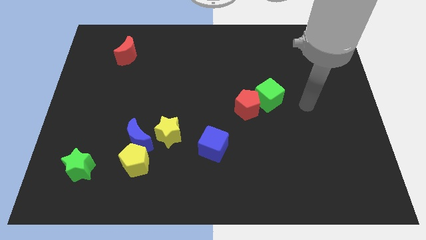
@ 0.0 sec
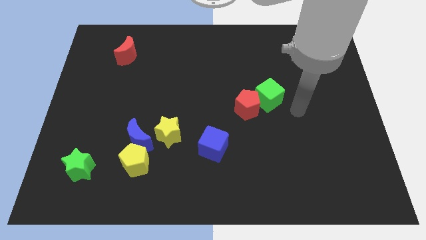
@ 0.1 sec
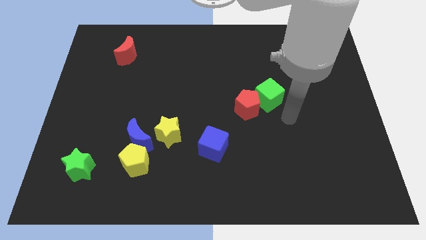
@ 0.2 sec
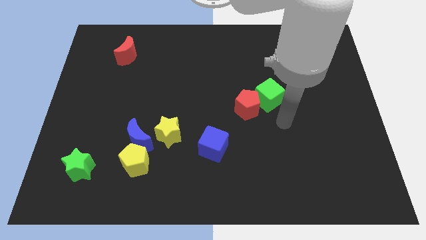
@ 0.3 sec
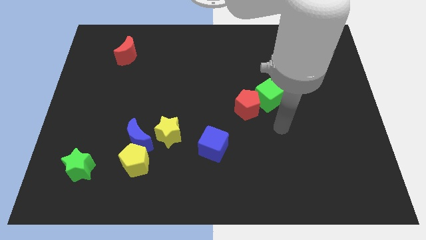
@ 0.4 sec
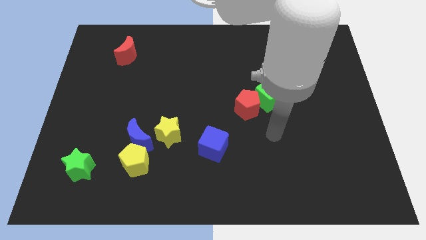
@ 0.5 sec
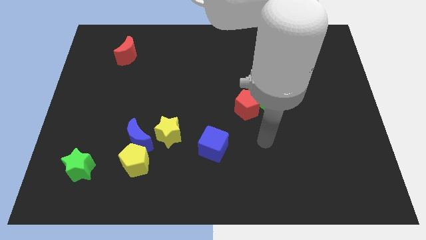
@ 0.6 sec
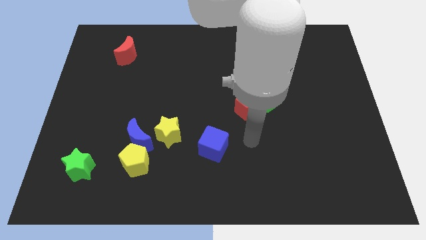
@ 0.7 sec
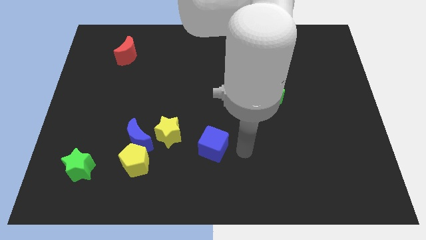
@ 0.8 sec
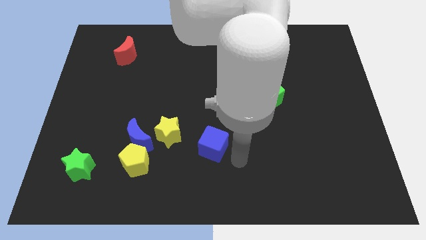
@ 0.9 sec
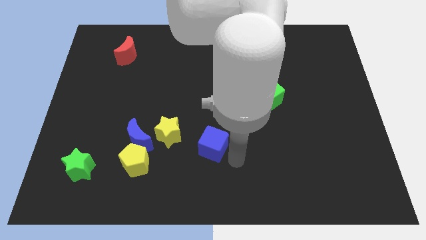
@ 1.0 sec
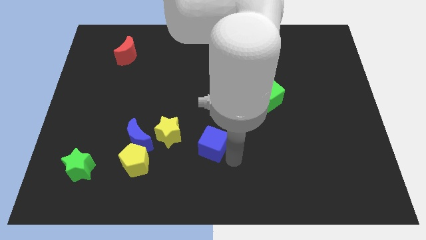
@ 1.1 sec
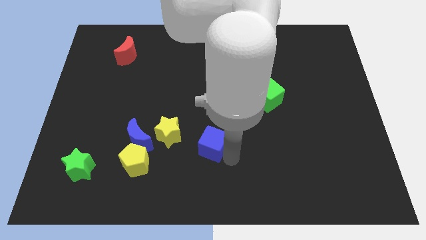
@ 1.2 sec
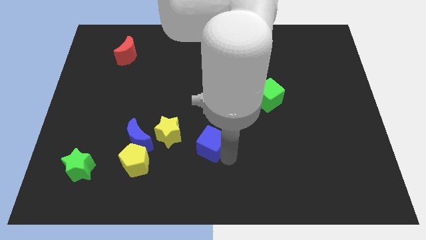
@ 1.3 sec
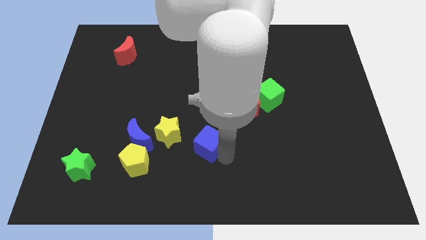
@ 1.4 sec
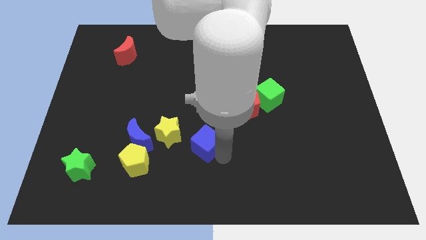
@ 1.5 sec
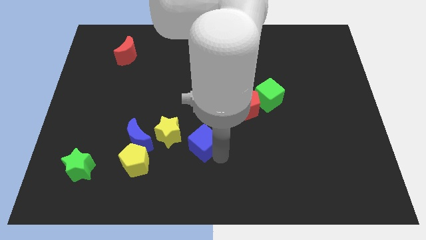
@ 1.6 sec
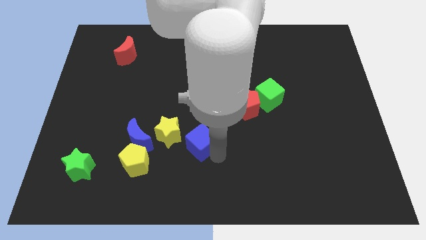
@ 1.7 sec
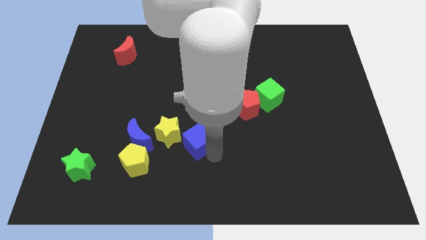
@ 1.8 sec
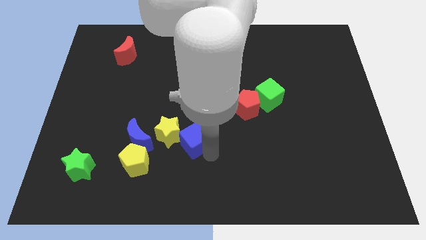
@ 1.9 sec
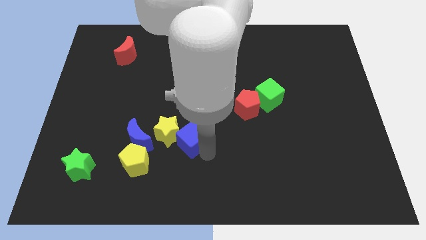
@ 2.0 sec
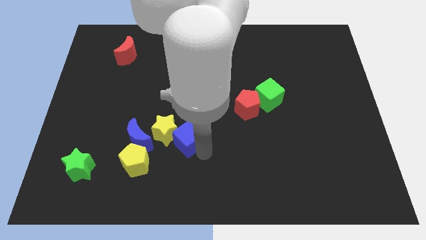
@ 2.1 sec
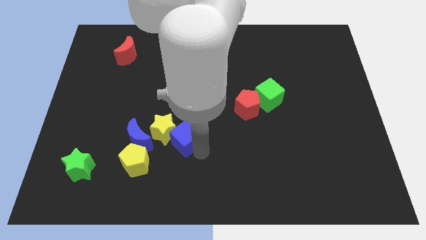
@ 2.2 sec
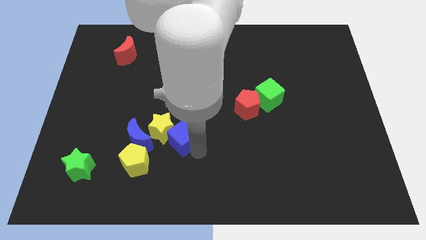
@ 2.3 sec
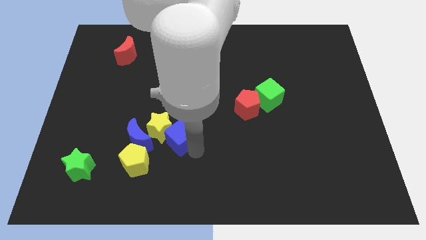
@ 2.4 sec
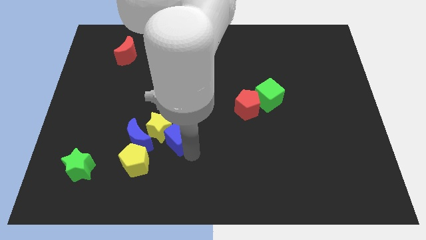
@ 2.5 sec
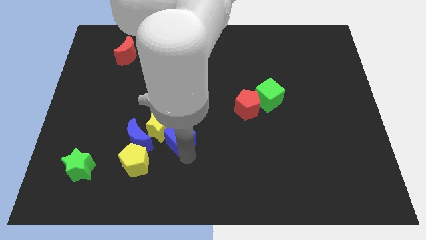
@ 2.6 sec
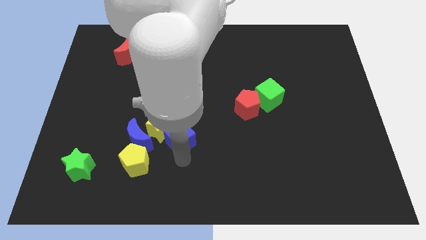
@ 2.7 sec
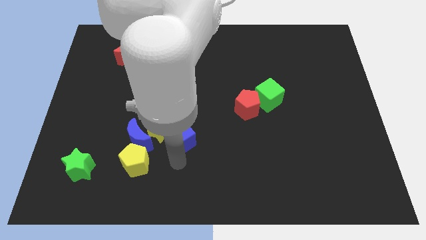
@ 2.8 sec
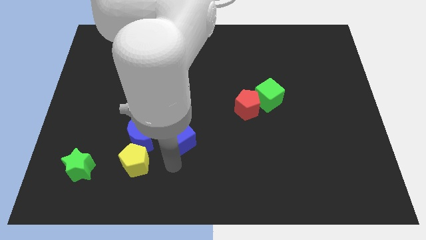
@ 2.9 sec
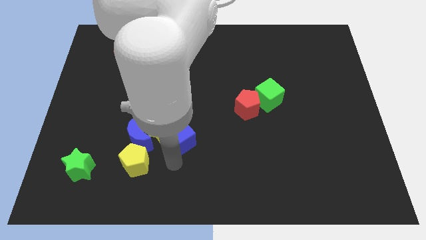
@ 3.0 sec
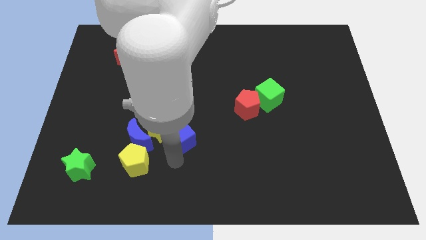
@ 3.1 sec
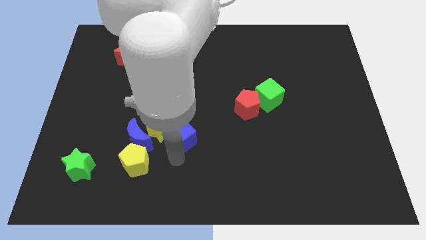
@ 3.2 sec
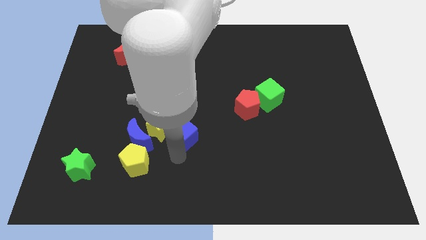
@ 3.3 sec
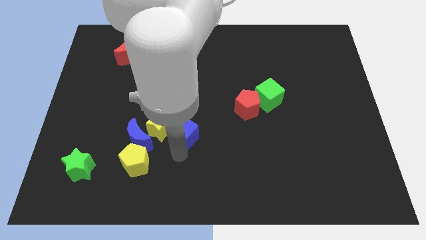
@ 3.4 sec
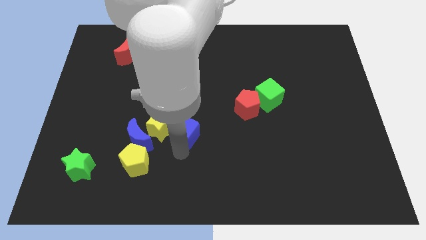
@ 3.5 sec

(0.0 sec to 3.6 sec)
slightly move the blue cube diagonally upwards and to the left

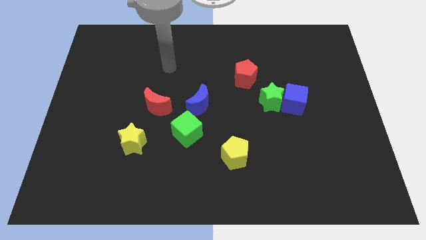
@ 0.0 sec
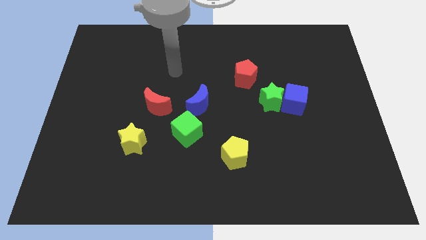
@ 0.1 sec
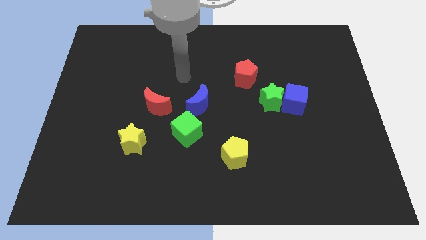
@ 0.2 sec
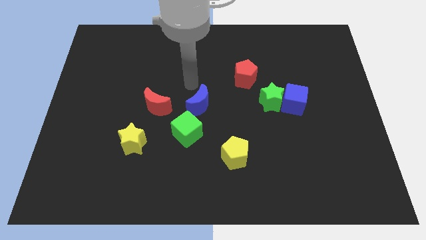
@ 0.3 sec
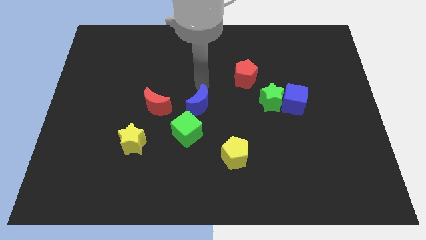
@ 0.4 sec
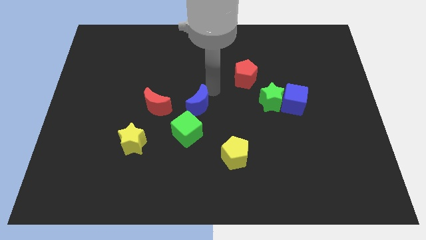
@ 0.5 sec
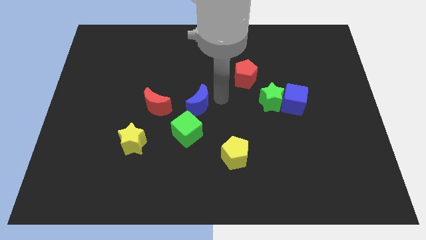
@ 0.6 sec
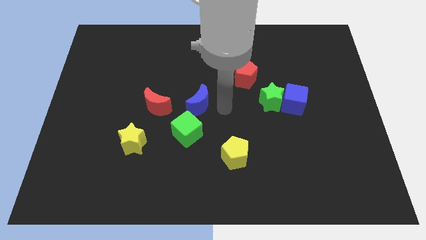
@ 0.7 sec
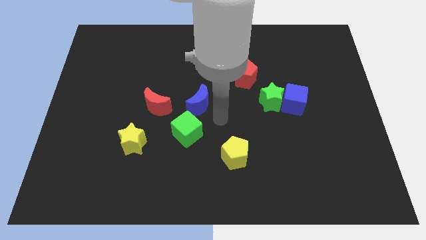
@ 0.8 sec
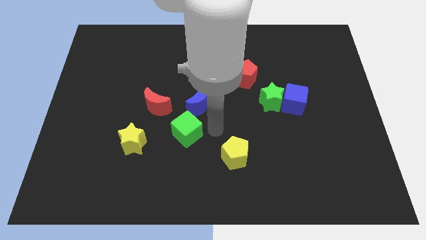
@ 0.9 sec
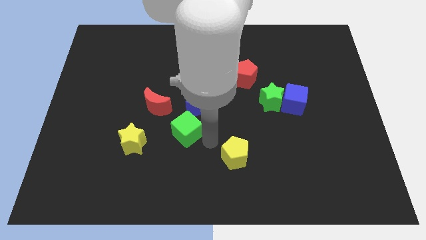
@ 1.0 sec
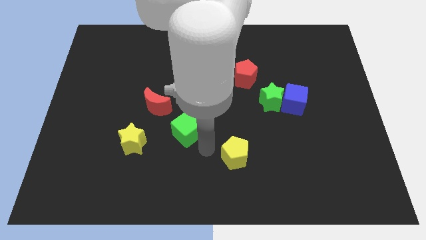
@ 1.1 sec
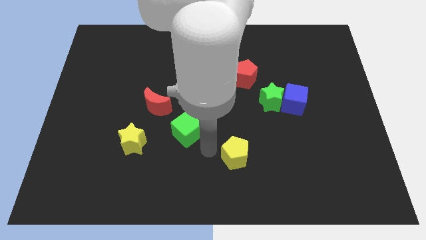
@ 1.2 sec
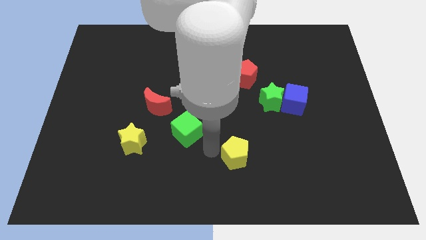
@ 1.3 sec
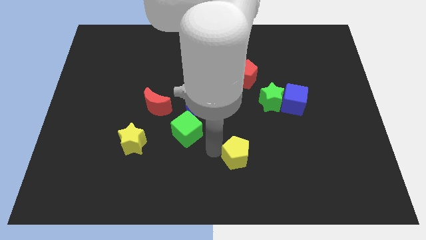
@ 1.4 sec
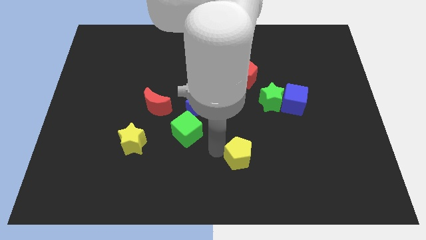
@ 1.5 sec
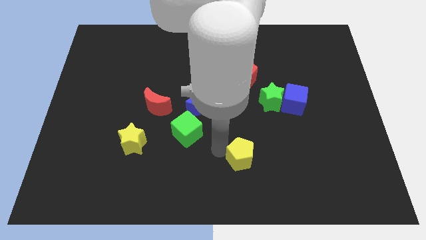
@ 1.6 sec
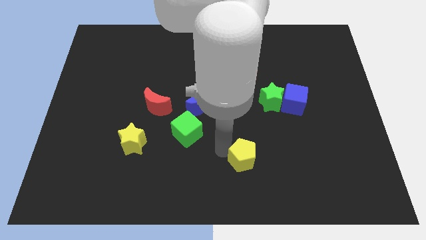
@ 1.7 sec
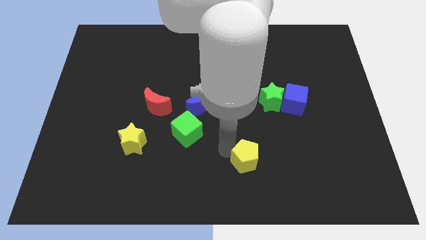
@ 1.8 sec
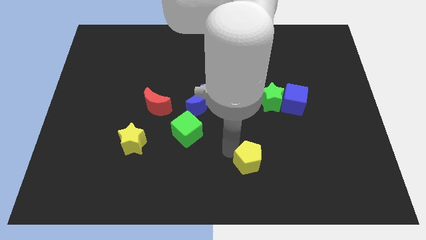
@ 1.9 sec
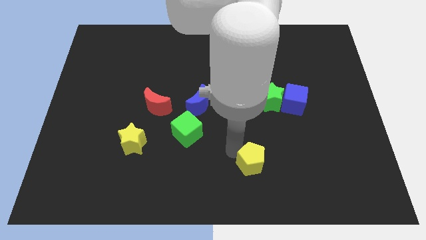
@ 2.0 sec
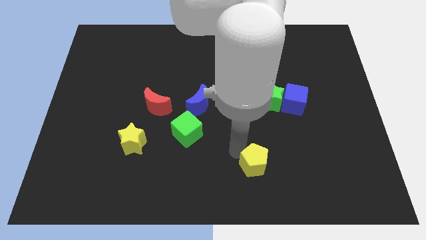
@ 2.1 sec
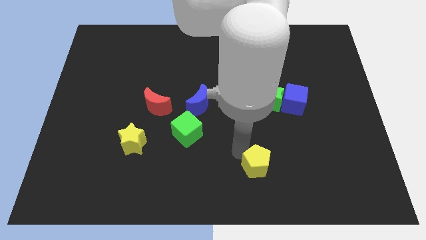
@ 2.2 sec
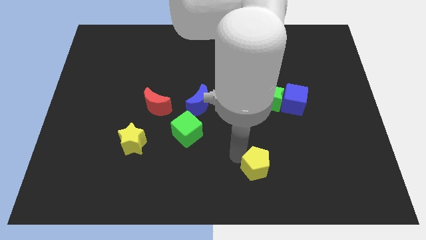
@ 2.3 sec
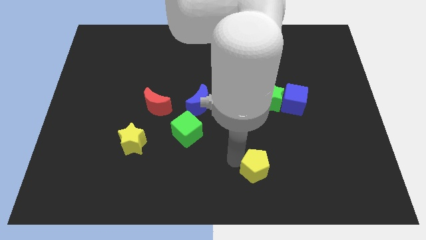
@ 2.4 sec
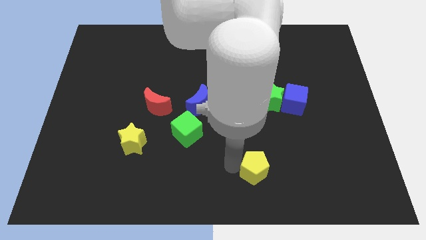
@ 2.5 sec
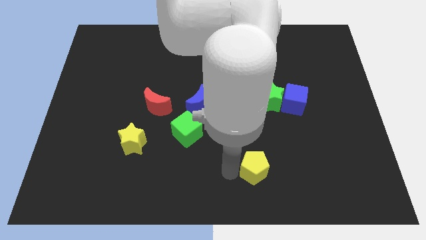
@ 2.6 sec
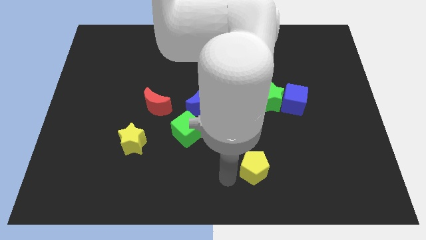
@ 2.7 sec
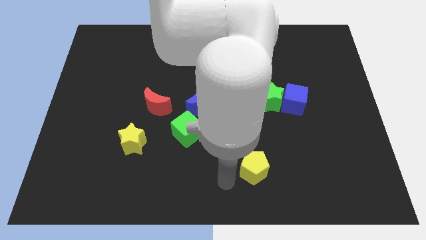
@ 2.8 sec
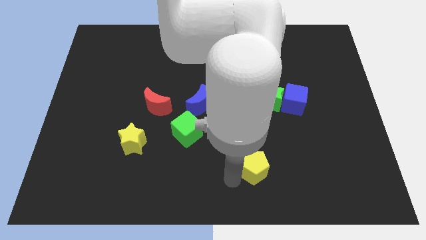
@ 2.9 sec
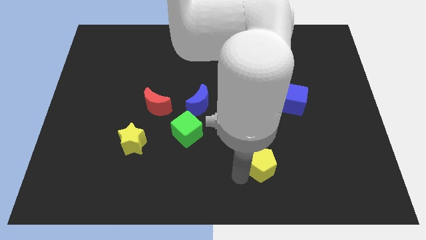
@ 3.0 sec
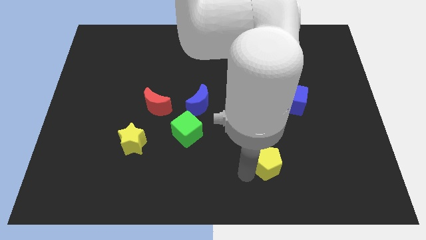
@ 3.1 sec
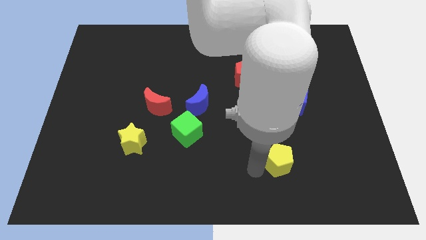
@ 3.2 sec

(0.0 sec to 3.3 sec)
move the yellow pentagon right a little

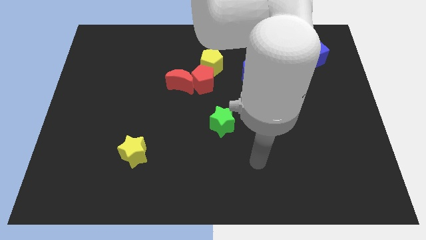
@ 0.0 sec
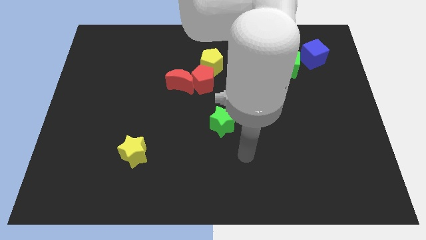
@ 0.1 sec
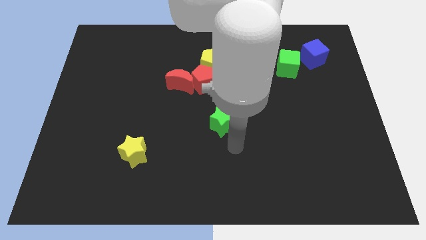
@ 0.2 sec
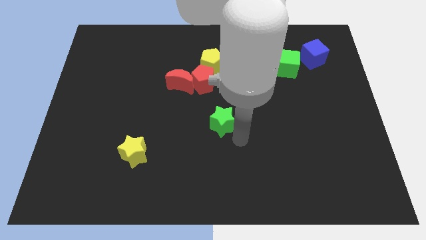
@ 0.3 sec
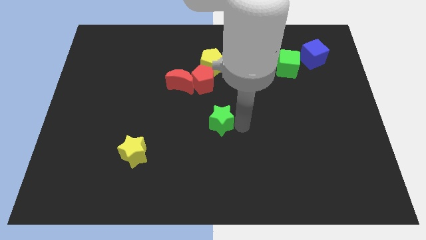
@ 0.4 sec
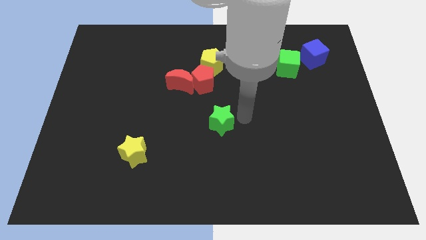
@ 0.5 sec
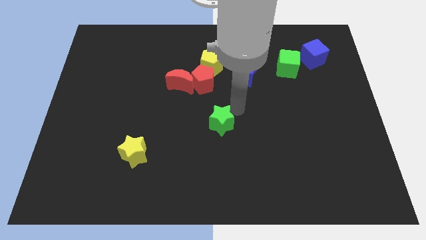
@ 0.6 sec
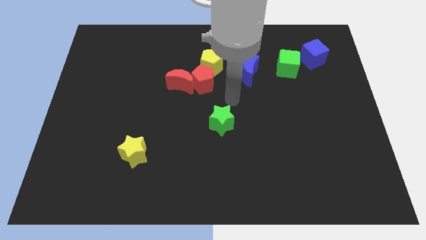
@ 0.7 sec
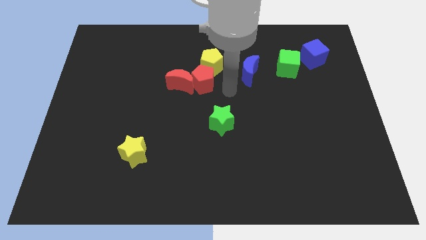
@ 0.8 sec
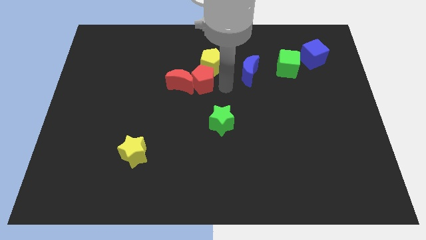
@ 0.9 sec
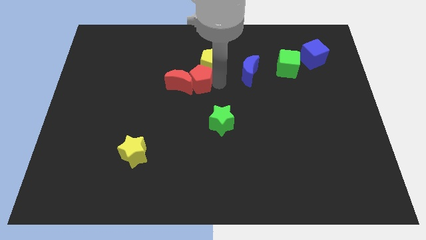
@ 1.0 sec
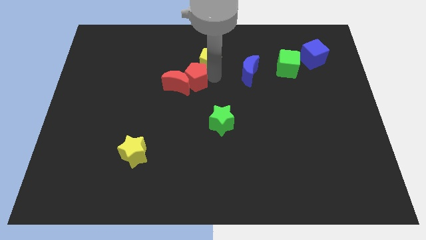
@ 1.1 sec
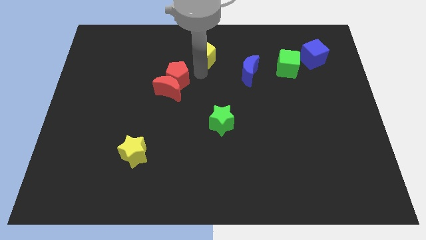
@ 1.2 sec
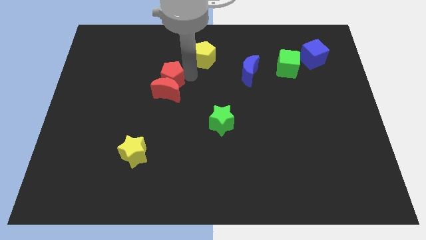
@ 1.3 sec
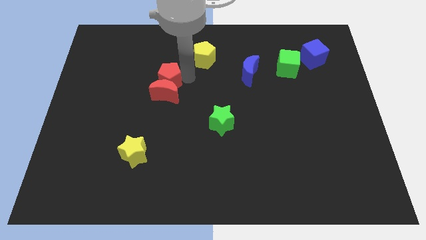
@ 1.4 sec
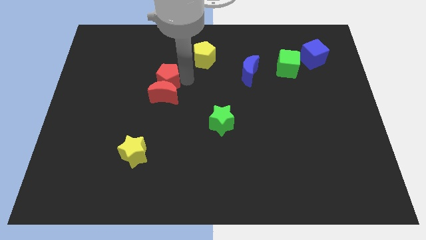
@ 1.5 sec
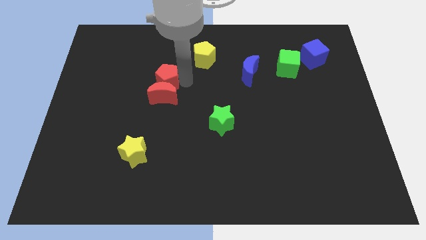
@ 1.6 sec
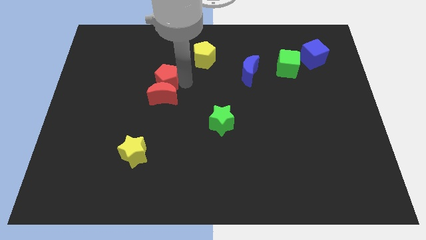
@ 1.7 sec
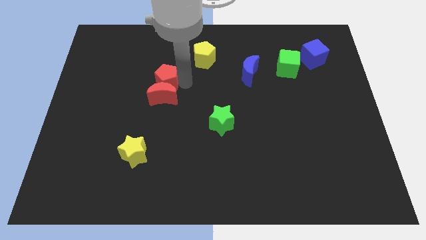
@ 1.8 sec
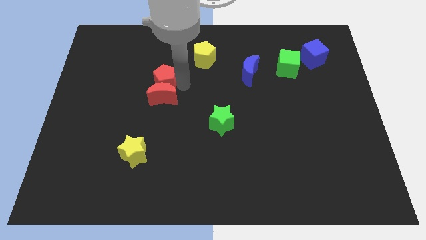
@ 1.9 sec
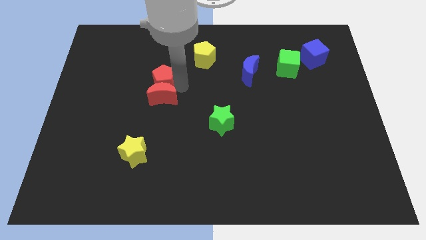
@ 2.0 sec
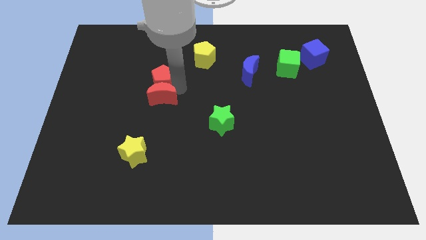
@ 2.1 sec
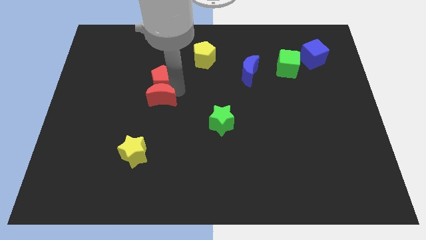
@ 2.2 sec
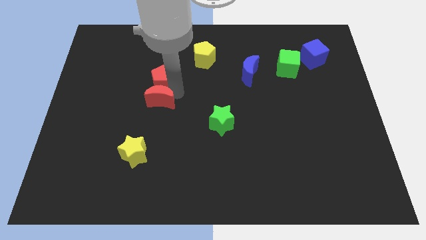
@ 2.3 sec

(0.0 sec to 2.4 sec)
slightly push the red moon diagonally downwards and to the left
